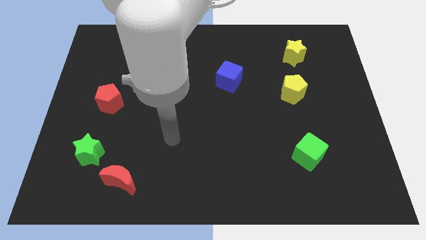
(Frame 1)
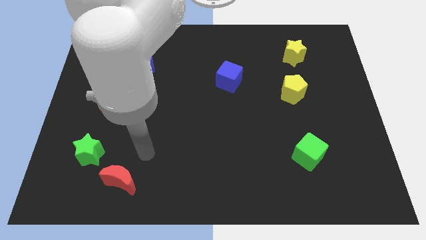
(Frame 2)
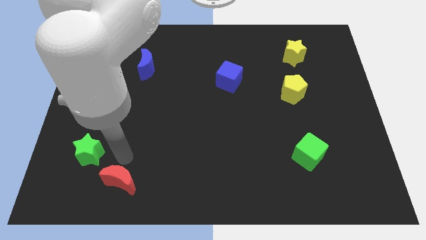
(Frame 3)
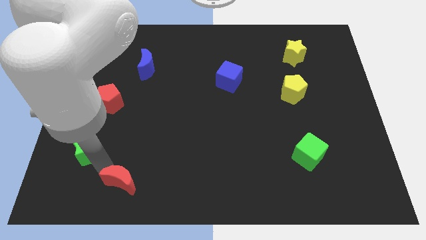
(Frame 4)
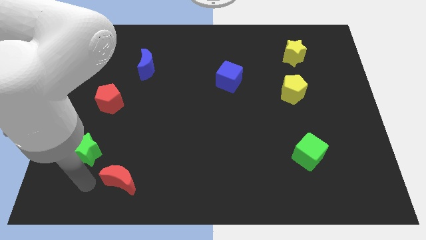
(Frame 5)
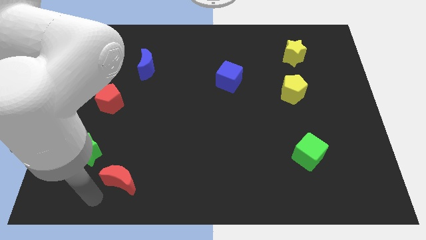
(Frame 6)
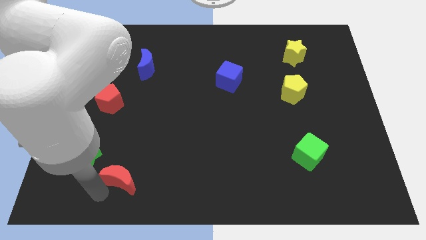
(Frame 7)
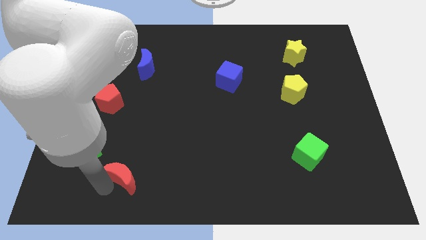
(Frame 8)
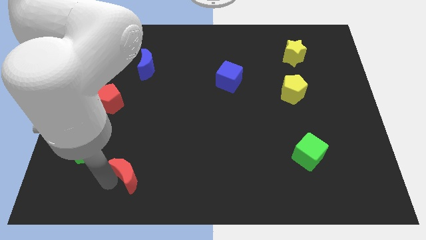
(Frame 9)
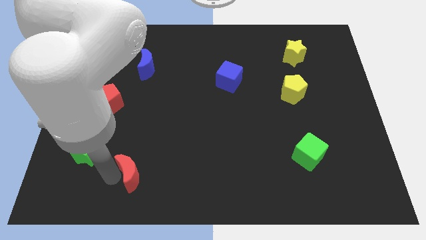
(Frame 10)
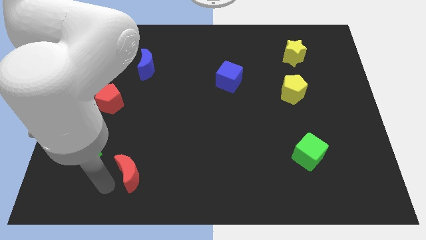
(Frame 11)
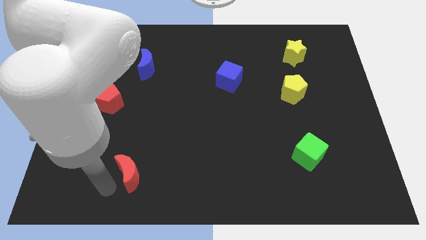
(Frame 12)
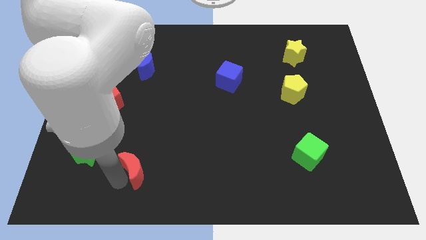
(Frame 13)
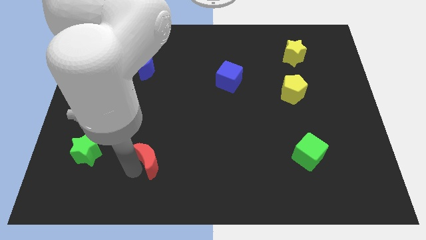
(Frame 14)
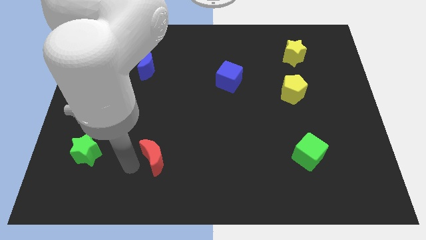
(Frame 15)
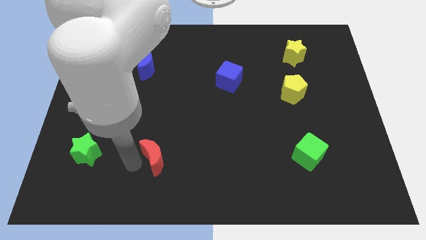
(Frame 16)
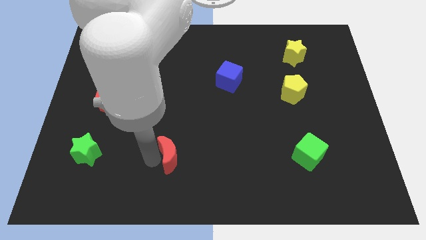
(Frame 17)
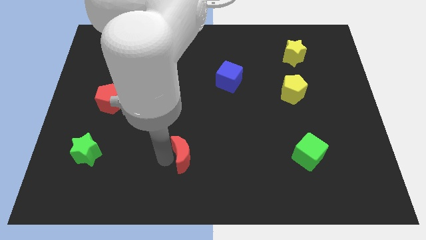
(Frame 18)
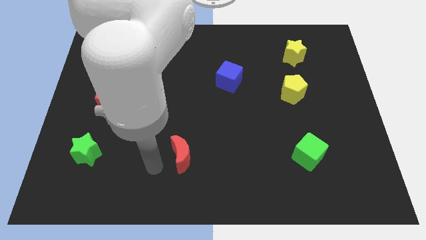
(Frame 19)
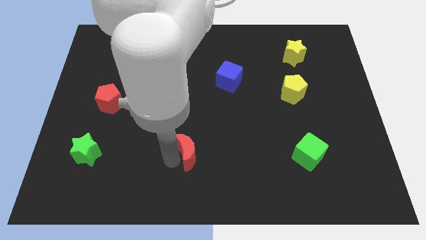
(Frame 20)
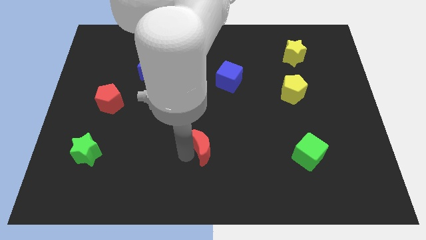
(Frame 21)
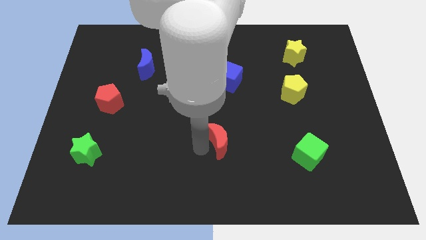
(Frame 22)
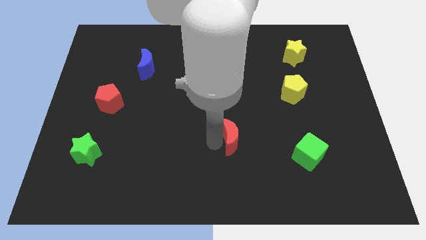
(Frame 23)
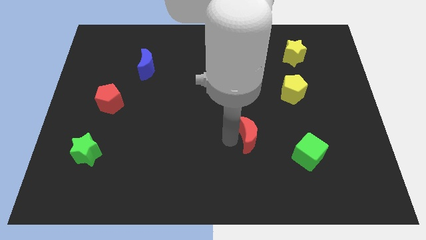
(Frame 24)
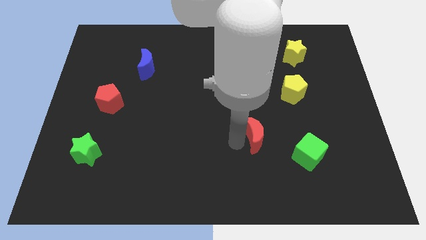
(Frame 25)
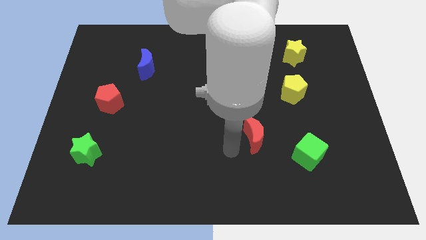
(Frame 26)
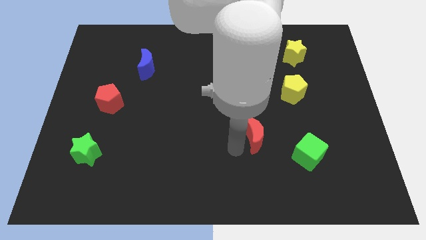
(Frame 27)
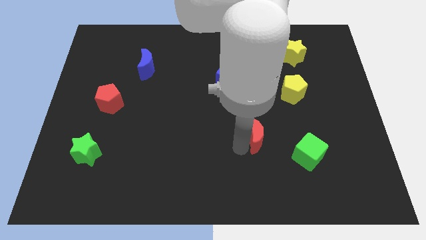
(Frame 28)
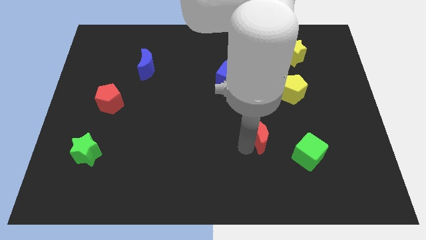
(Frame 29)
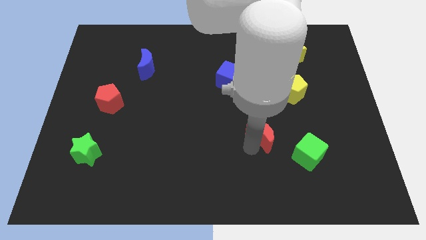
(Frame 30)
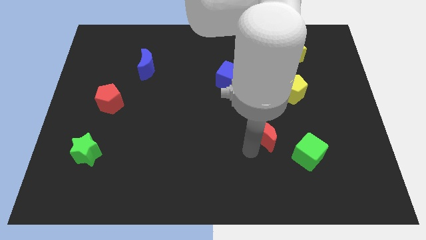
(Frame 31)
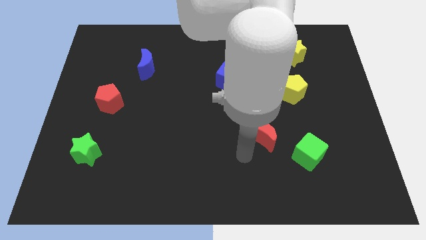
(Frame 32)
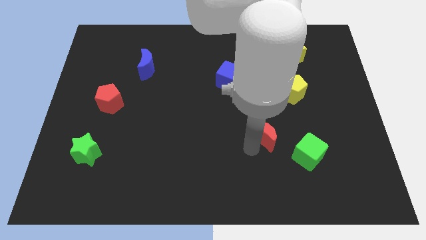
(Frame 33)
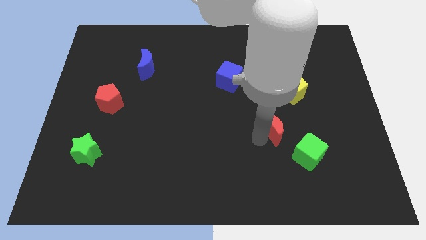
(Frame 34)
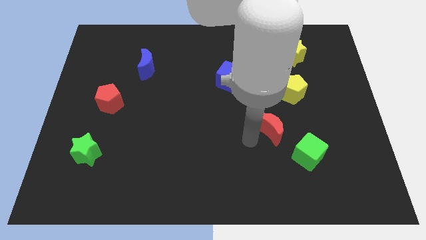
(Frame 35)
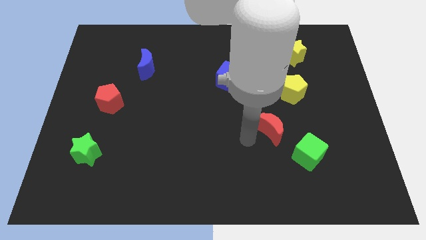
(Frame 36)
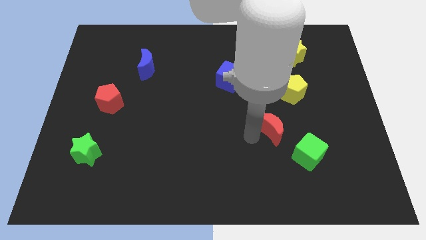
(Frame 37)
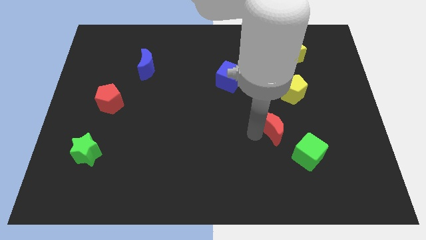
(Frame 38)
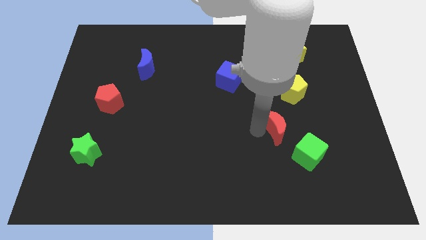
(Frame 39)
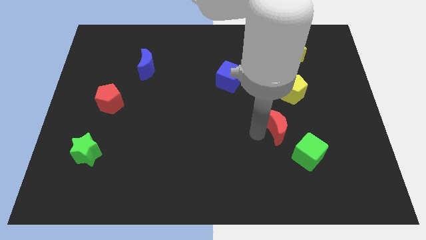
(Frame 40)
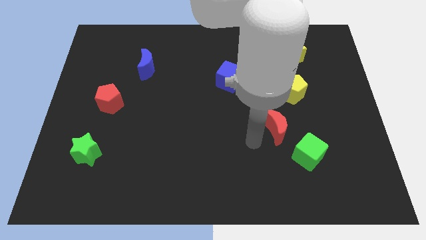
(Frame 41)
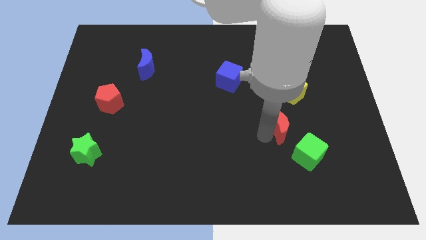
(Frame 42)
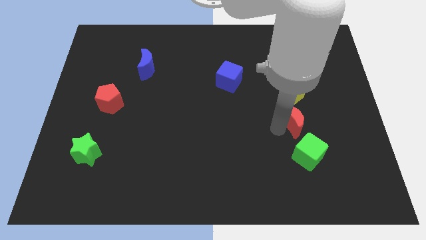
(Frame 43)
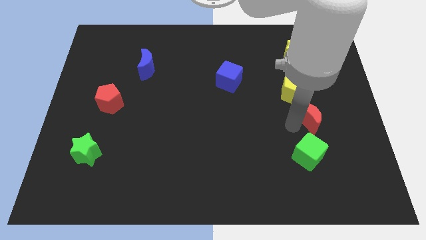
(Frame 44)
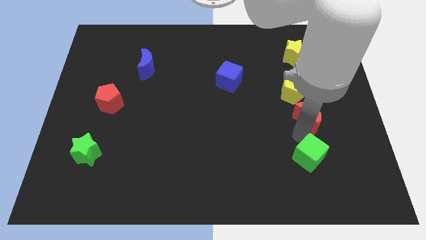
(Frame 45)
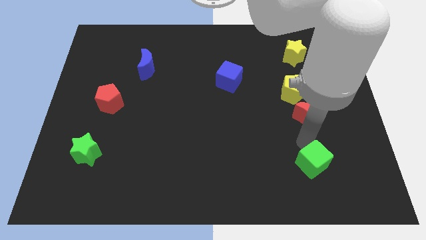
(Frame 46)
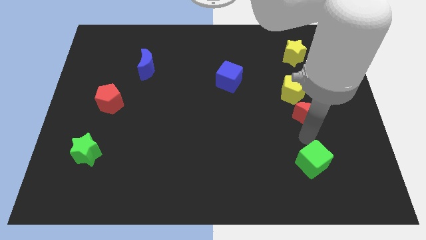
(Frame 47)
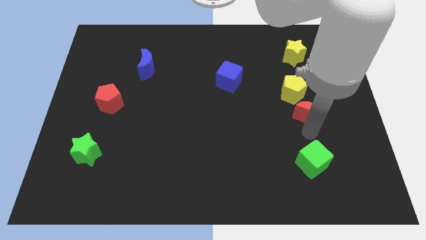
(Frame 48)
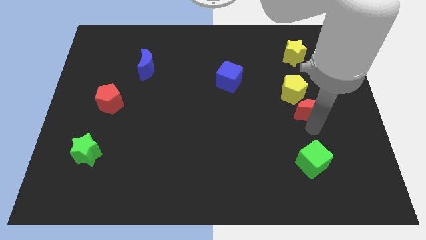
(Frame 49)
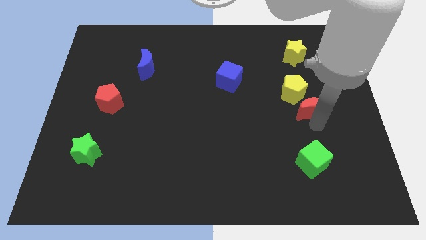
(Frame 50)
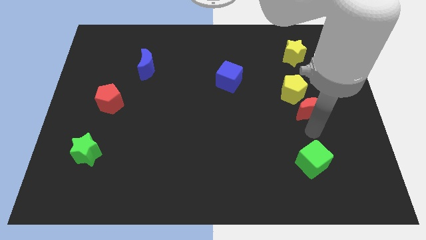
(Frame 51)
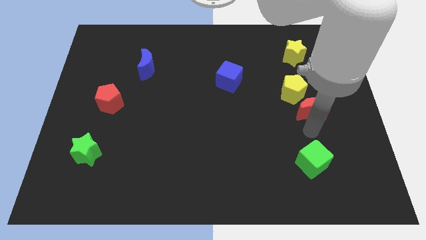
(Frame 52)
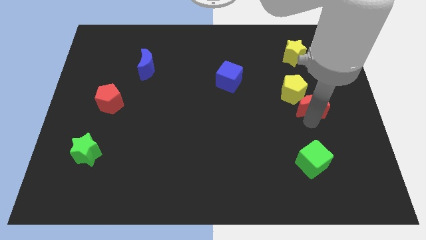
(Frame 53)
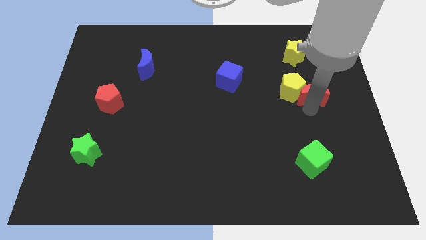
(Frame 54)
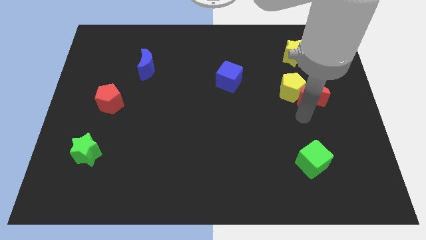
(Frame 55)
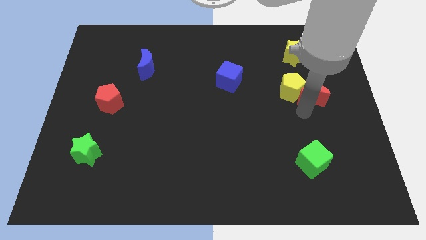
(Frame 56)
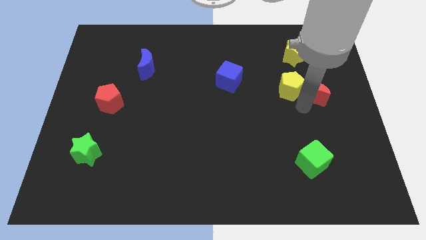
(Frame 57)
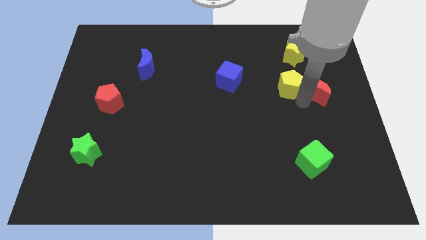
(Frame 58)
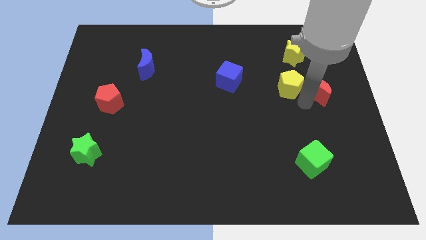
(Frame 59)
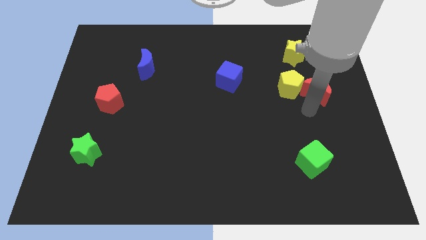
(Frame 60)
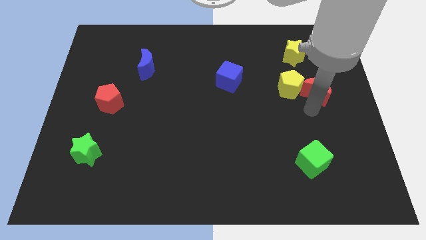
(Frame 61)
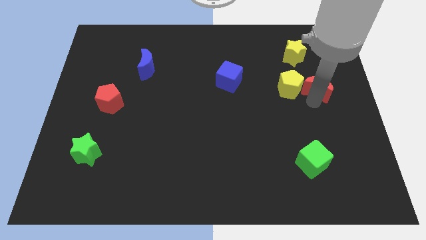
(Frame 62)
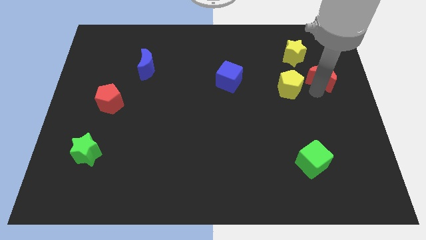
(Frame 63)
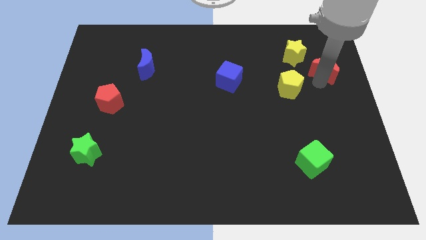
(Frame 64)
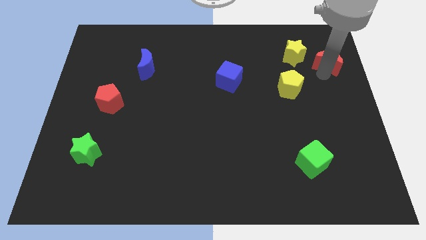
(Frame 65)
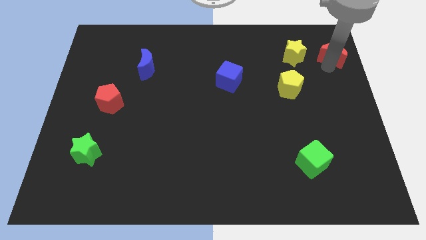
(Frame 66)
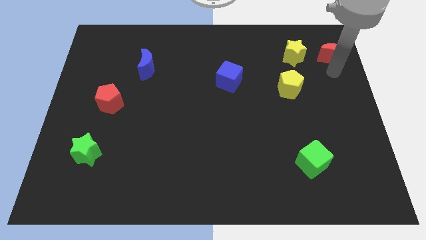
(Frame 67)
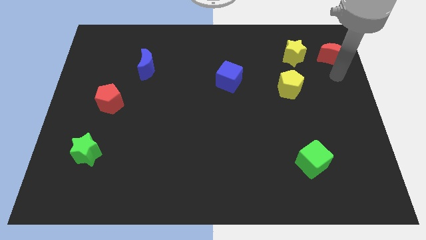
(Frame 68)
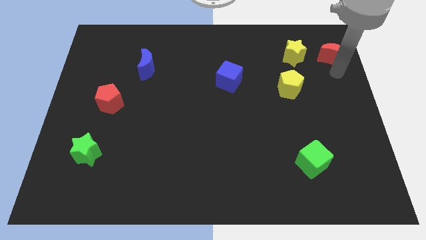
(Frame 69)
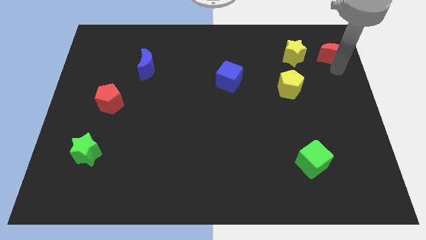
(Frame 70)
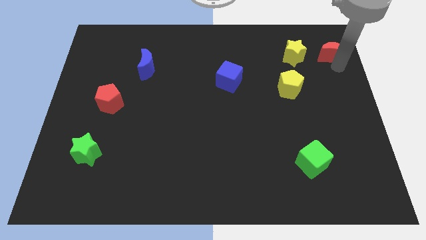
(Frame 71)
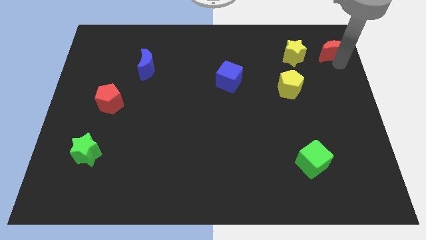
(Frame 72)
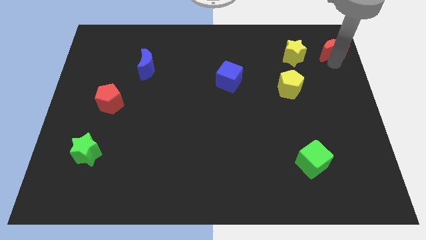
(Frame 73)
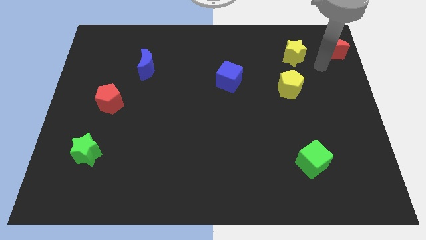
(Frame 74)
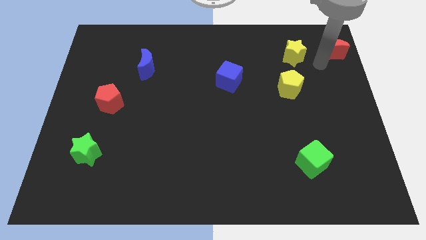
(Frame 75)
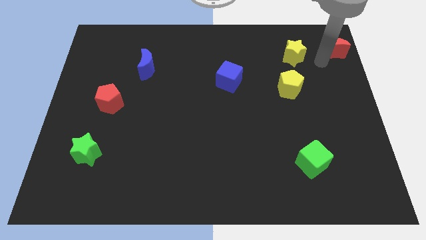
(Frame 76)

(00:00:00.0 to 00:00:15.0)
move the red moon to the top right
